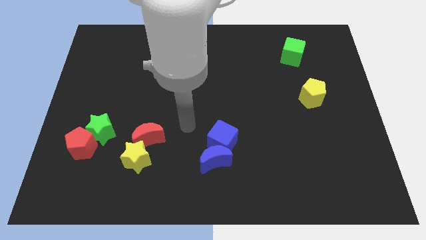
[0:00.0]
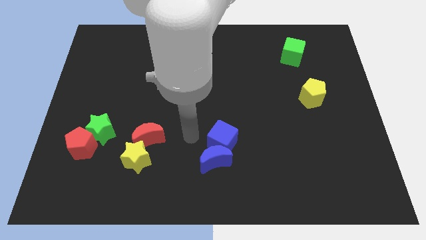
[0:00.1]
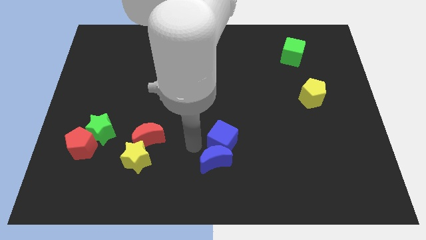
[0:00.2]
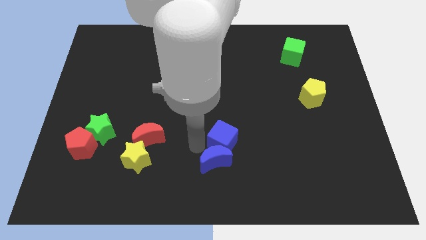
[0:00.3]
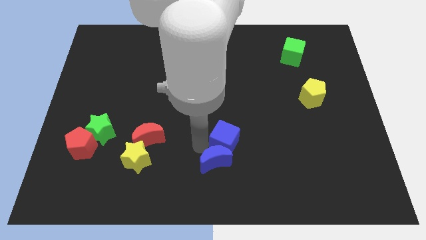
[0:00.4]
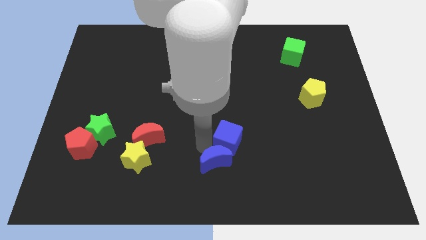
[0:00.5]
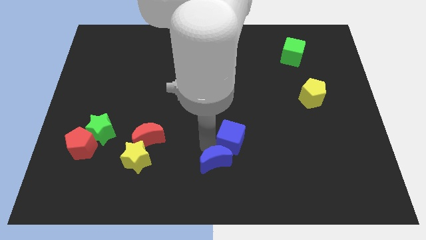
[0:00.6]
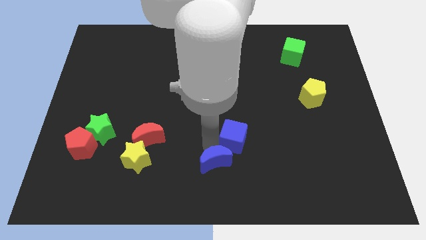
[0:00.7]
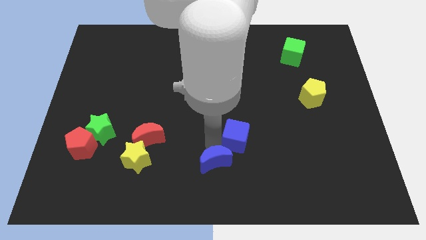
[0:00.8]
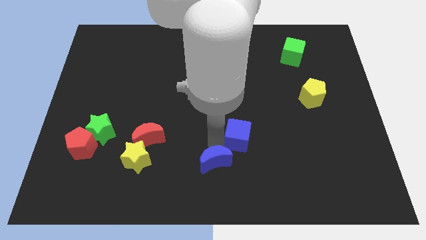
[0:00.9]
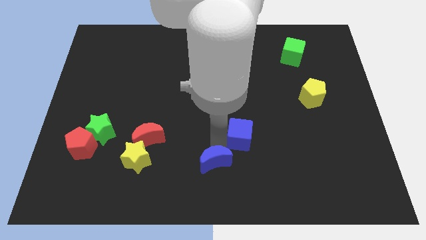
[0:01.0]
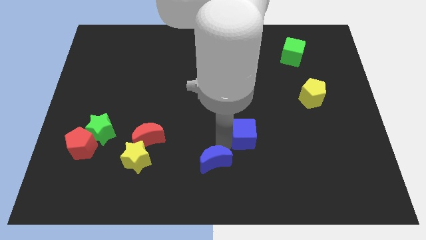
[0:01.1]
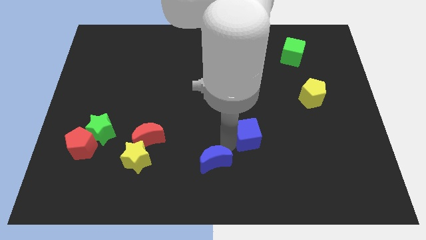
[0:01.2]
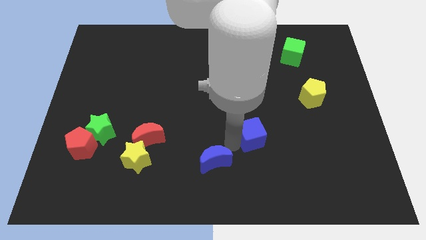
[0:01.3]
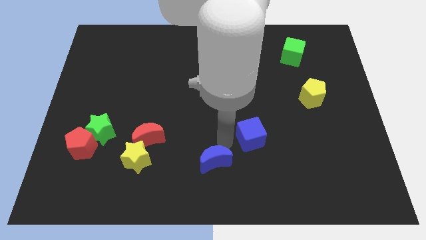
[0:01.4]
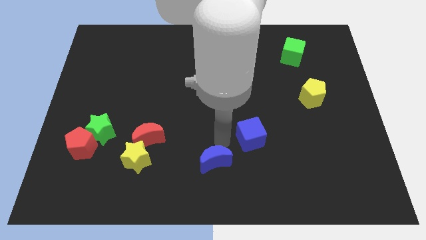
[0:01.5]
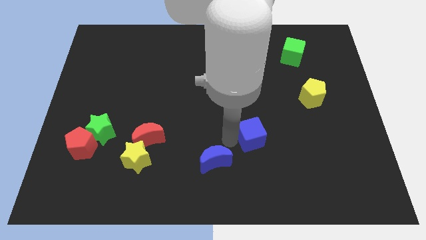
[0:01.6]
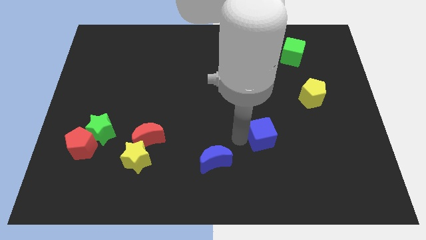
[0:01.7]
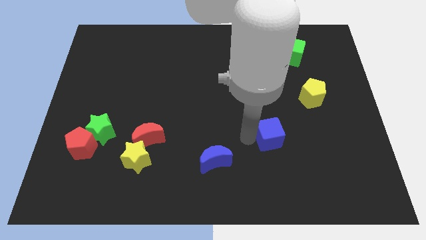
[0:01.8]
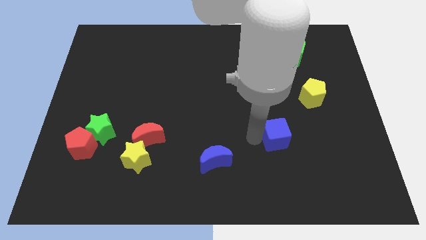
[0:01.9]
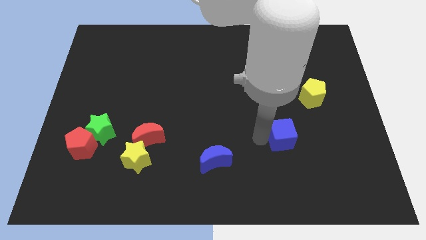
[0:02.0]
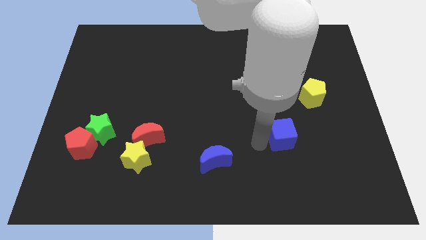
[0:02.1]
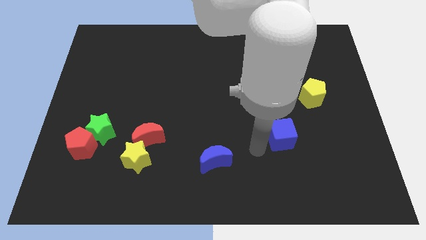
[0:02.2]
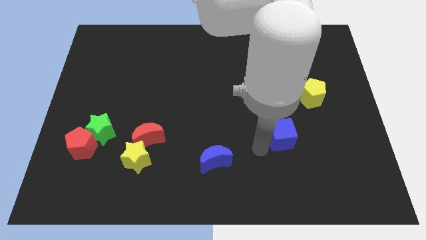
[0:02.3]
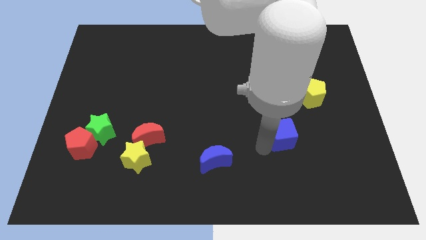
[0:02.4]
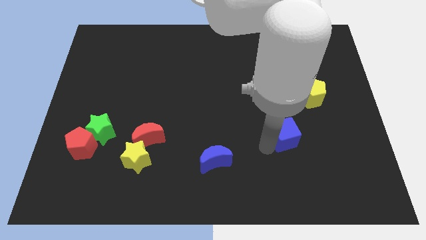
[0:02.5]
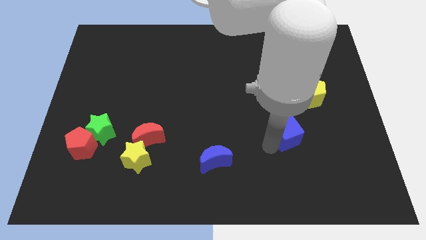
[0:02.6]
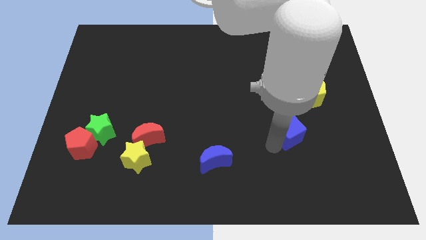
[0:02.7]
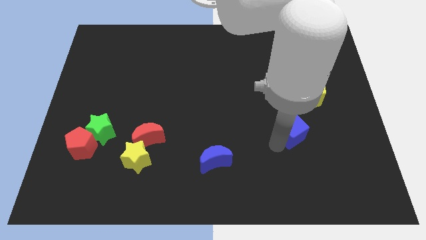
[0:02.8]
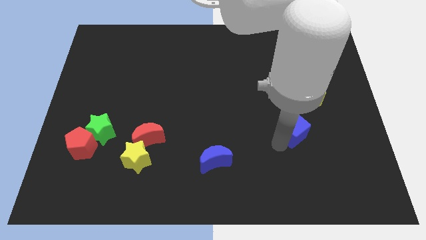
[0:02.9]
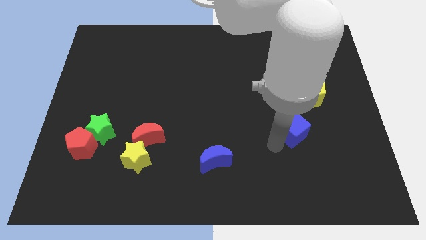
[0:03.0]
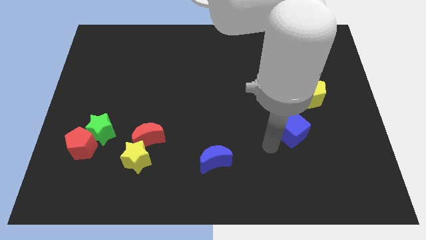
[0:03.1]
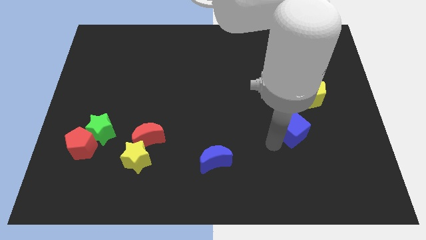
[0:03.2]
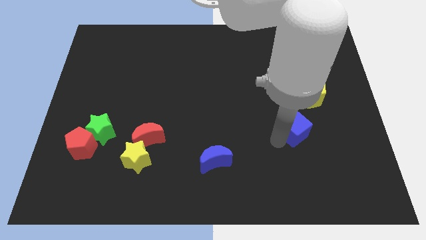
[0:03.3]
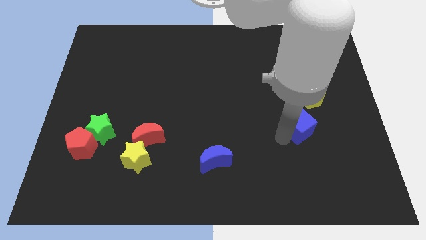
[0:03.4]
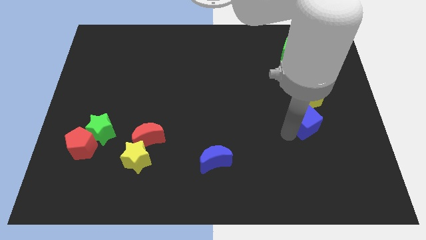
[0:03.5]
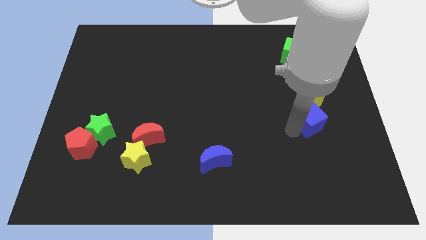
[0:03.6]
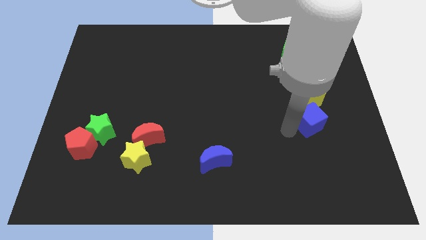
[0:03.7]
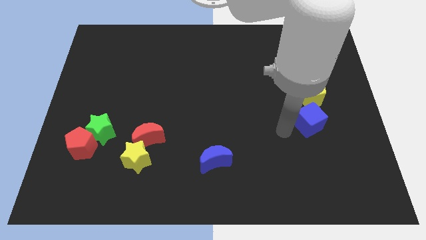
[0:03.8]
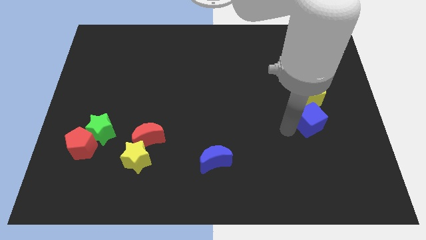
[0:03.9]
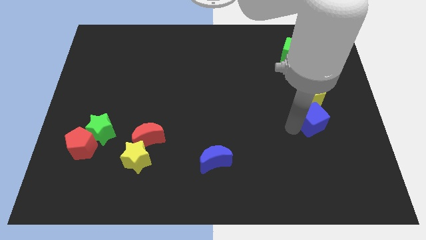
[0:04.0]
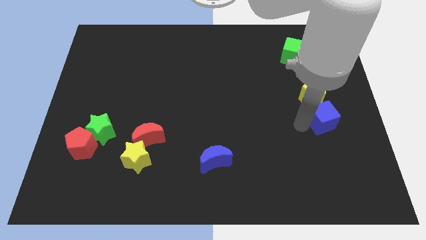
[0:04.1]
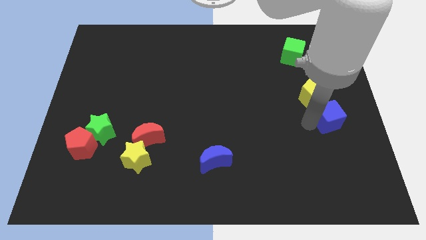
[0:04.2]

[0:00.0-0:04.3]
put the blue cube to the right side

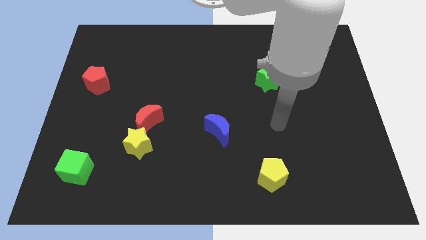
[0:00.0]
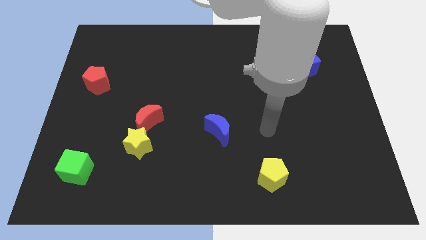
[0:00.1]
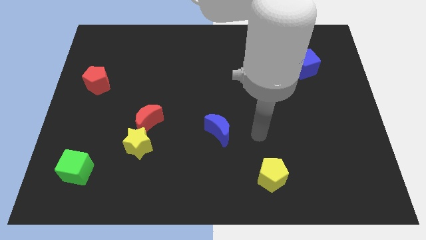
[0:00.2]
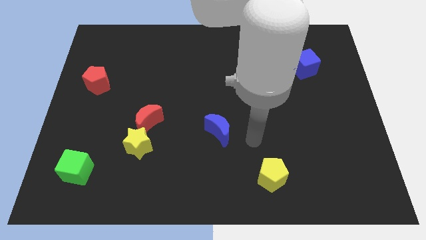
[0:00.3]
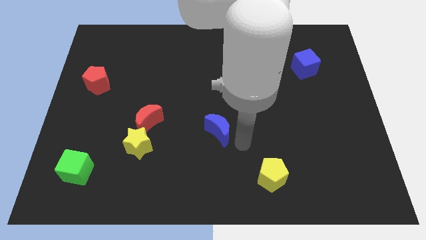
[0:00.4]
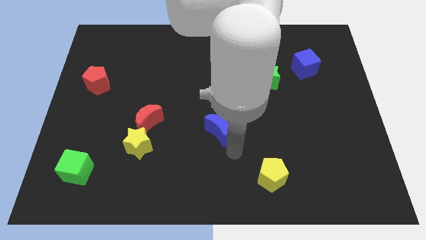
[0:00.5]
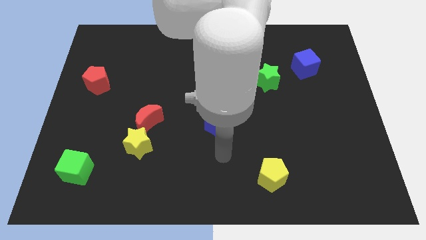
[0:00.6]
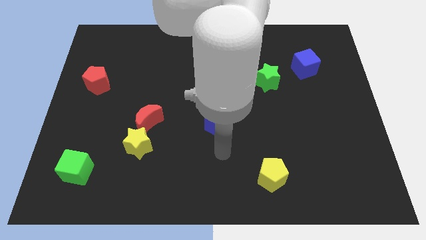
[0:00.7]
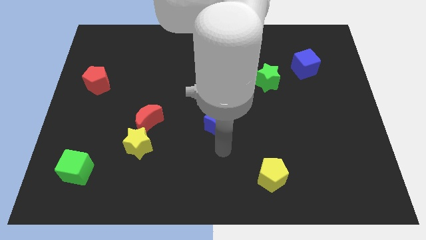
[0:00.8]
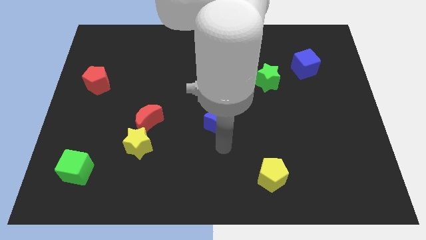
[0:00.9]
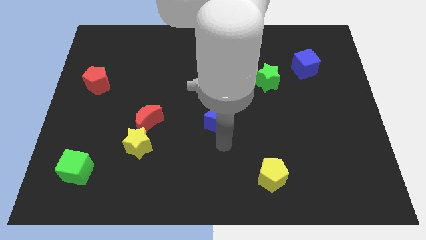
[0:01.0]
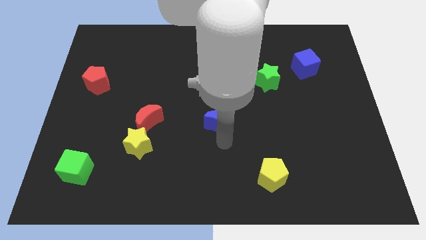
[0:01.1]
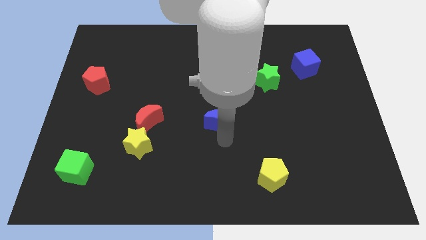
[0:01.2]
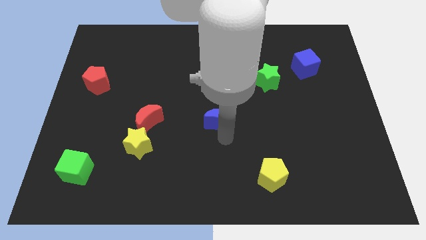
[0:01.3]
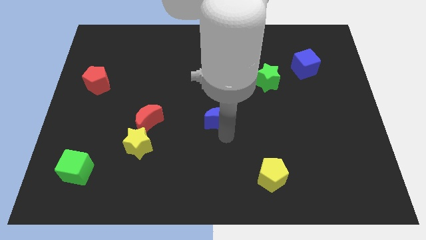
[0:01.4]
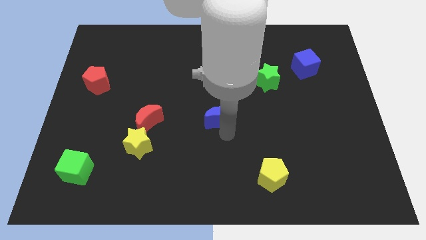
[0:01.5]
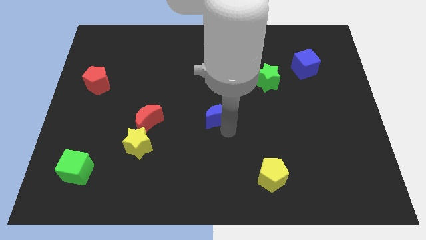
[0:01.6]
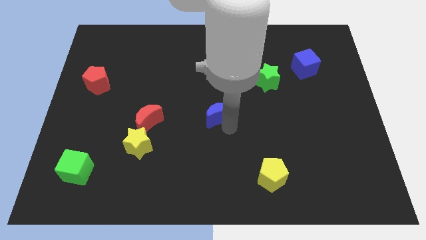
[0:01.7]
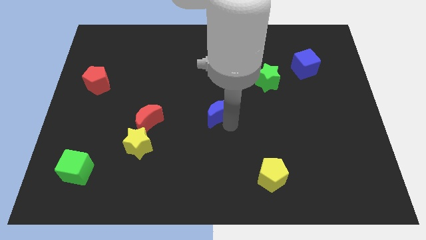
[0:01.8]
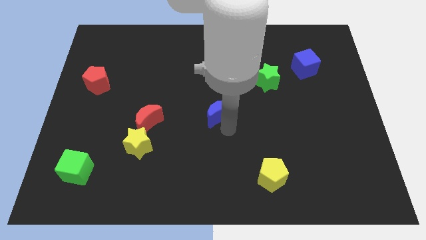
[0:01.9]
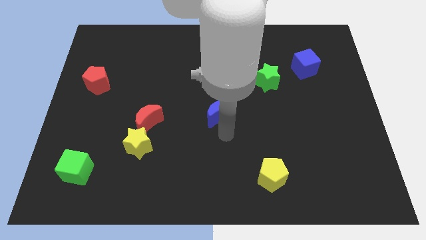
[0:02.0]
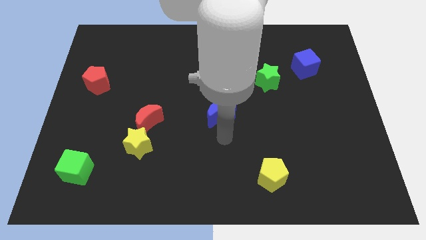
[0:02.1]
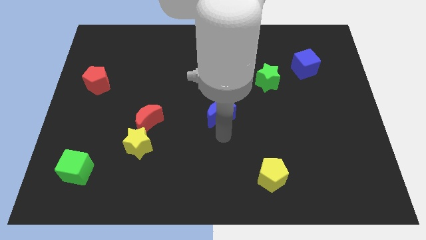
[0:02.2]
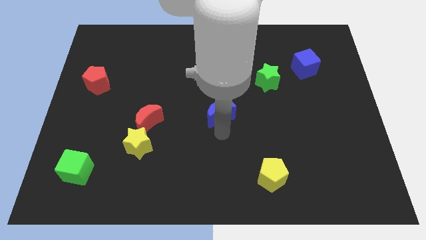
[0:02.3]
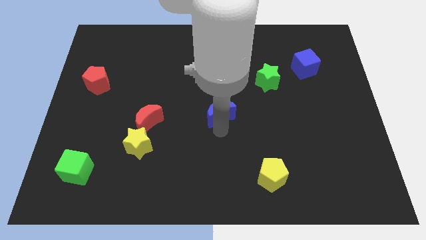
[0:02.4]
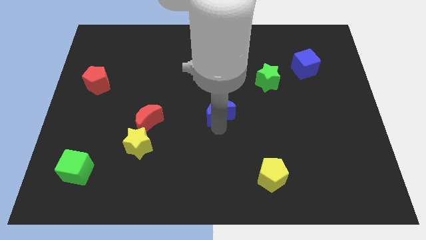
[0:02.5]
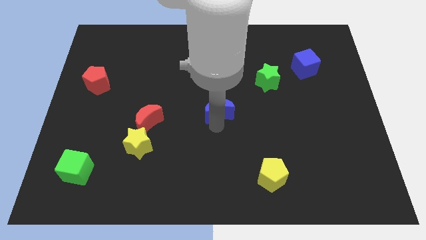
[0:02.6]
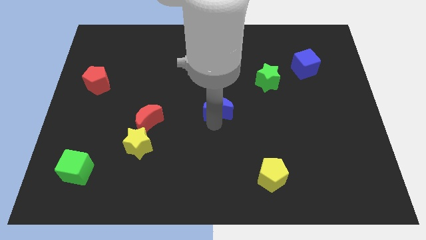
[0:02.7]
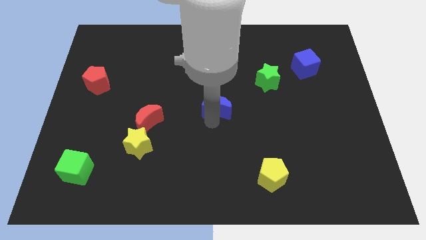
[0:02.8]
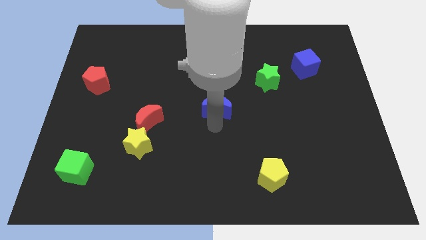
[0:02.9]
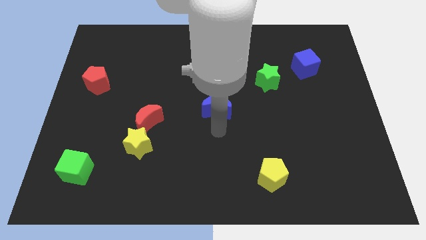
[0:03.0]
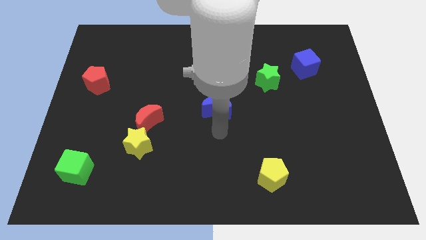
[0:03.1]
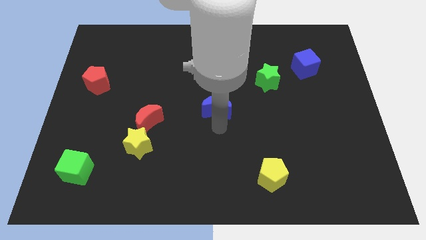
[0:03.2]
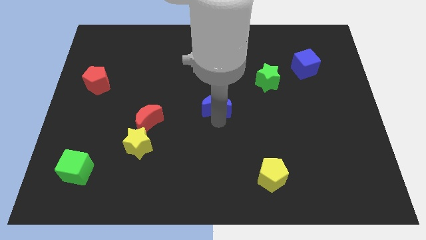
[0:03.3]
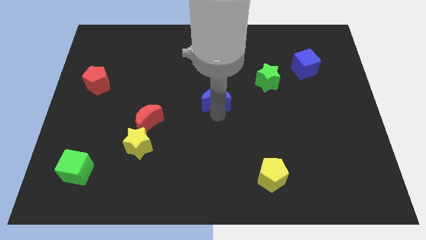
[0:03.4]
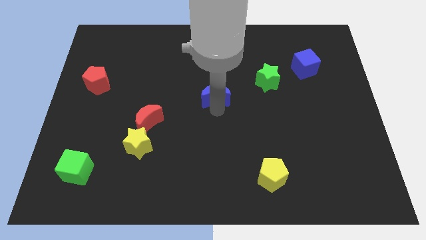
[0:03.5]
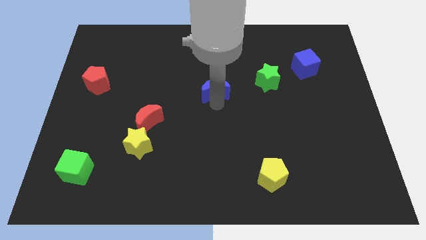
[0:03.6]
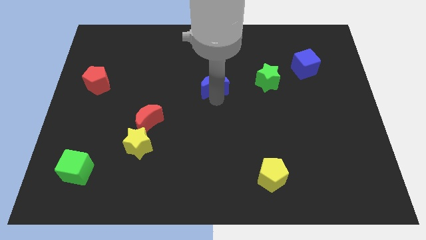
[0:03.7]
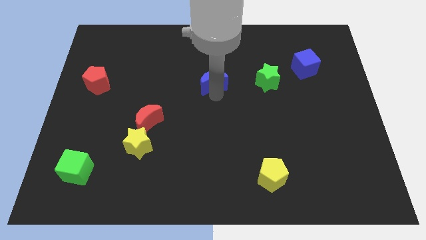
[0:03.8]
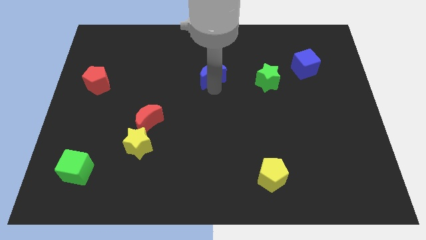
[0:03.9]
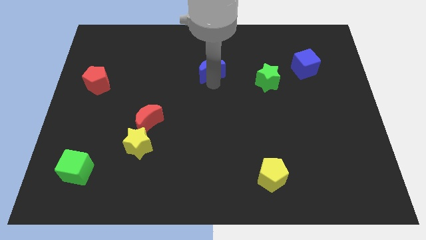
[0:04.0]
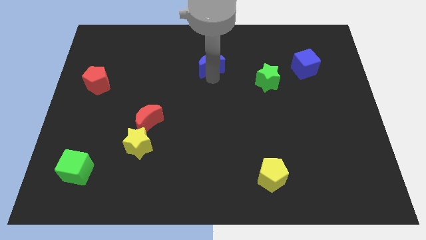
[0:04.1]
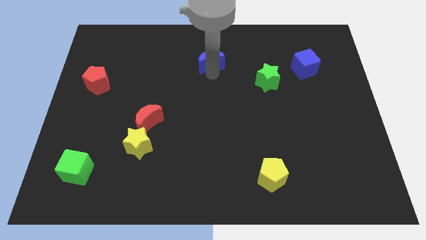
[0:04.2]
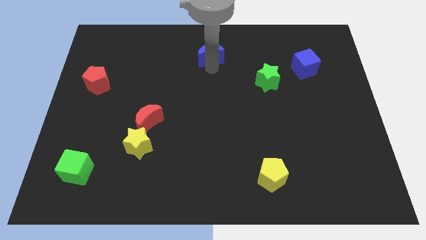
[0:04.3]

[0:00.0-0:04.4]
push the blue moon to the top side
